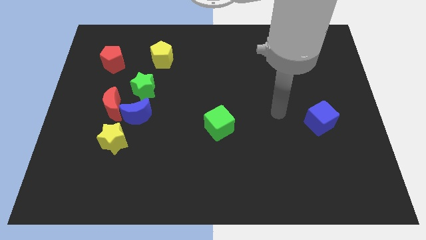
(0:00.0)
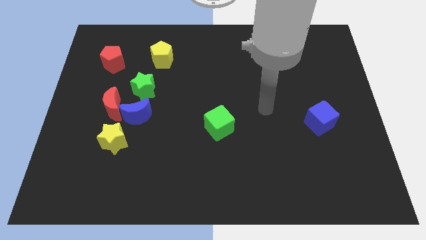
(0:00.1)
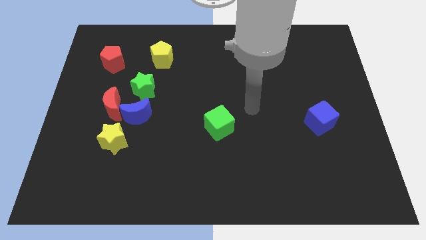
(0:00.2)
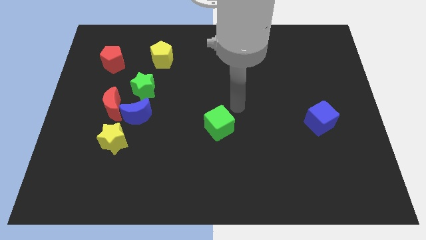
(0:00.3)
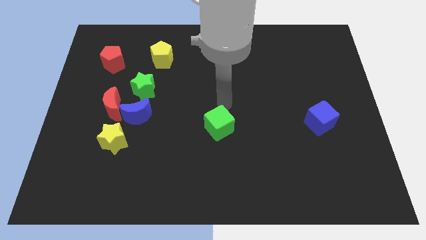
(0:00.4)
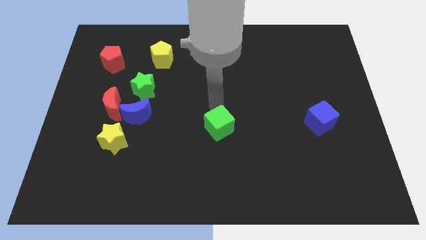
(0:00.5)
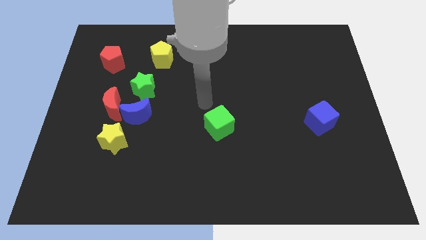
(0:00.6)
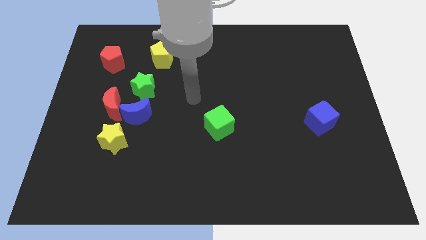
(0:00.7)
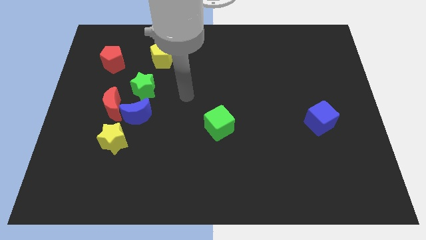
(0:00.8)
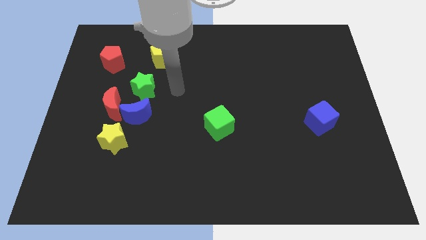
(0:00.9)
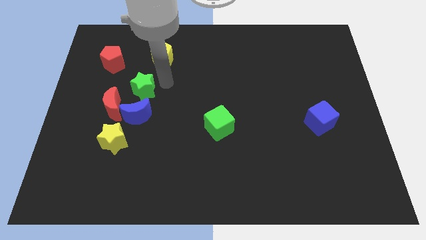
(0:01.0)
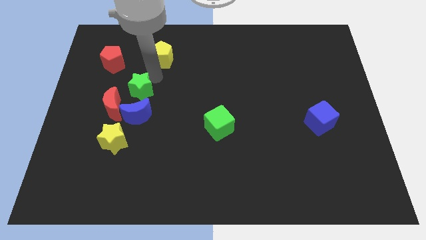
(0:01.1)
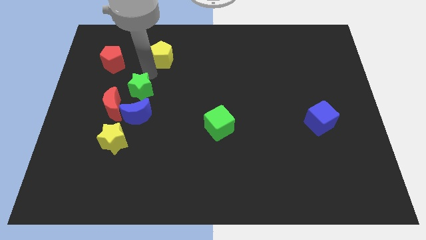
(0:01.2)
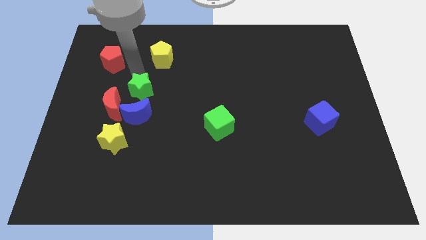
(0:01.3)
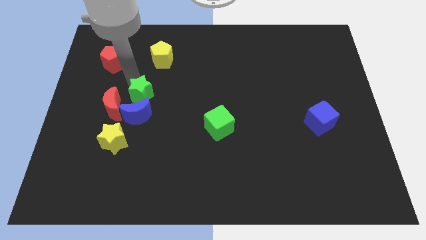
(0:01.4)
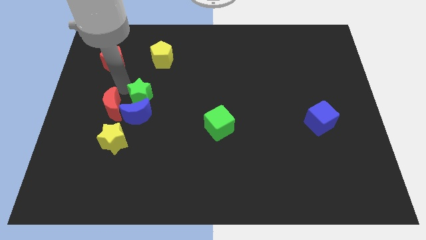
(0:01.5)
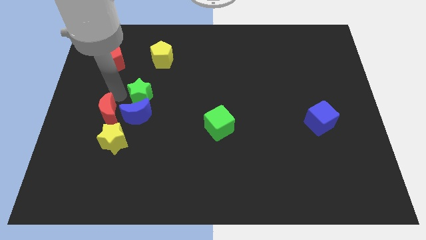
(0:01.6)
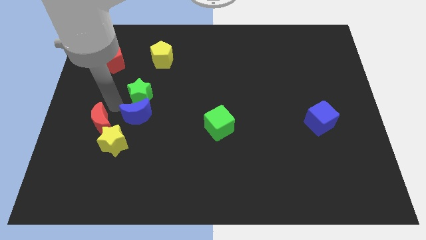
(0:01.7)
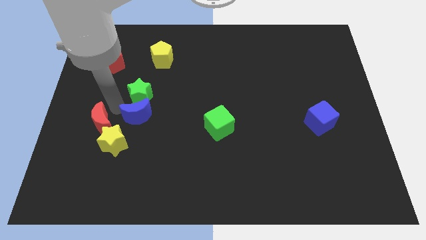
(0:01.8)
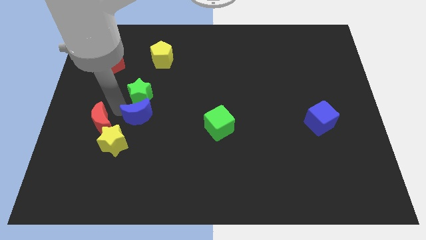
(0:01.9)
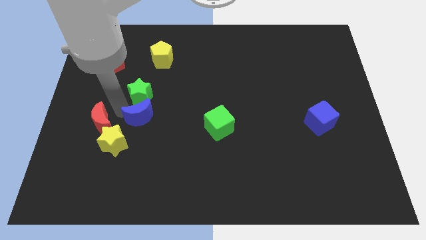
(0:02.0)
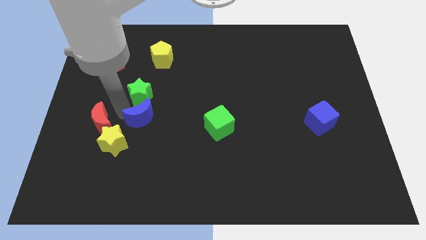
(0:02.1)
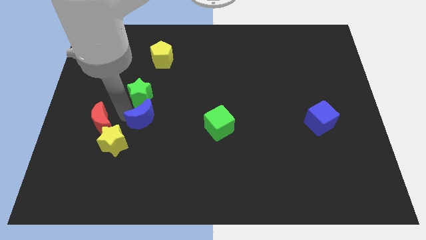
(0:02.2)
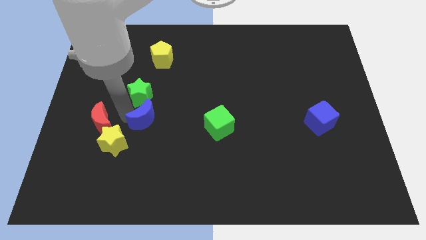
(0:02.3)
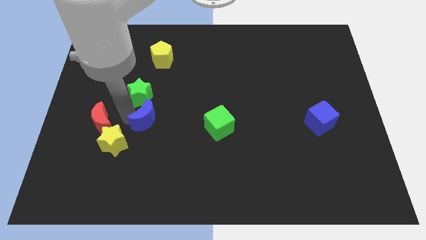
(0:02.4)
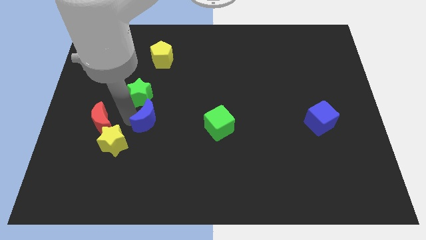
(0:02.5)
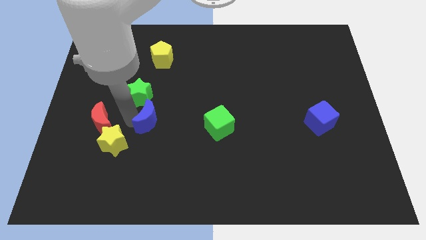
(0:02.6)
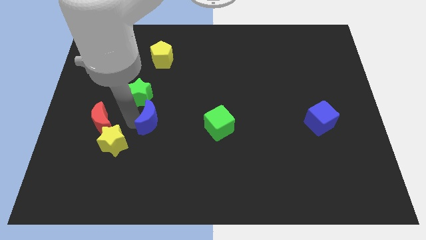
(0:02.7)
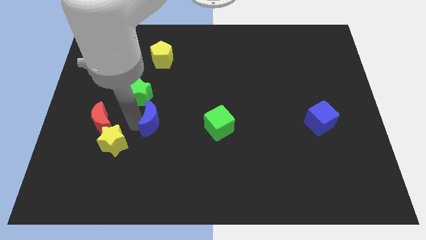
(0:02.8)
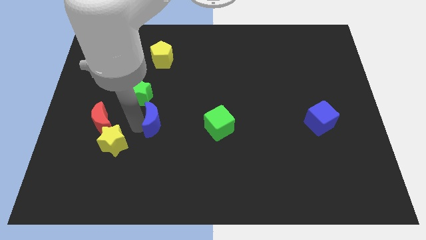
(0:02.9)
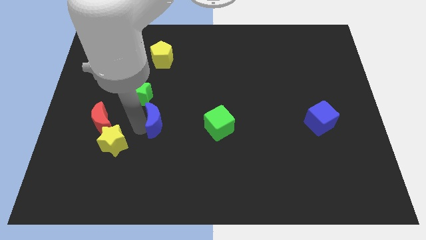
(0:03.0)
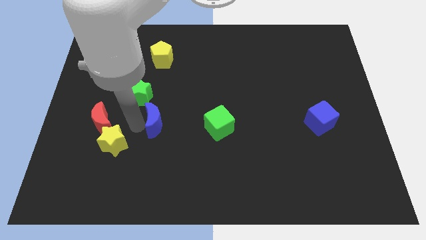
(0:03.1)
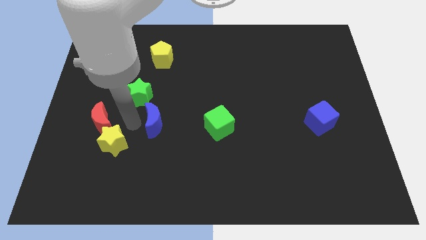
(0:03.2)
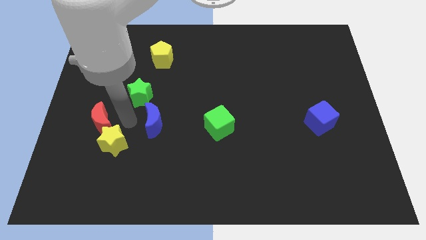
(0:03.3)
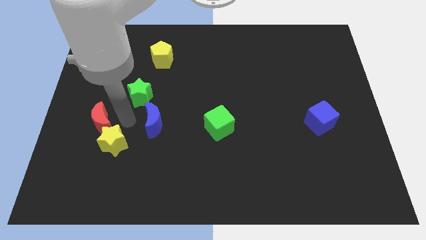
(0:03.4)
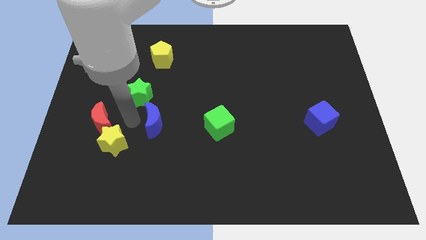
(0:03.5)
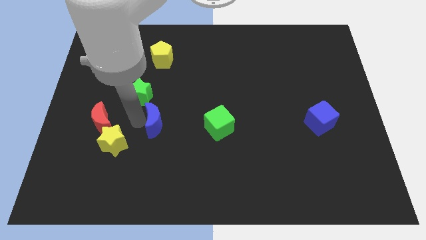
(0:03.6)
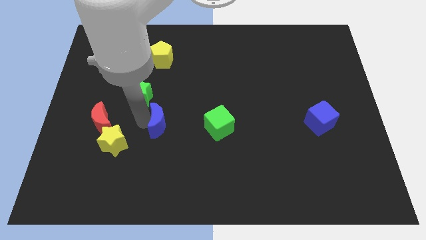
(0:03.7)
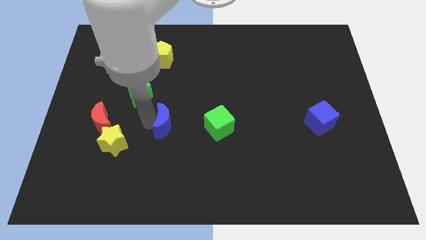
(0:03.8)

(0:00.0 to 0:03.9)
separate the blue moon from the group of blocks

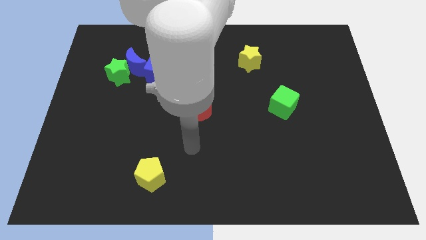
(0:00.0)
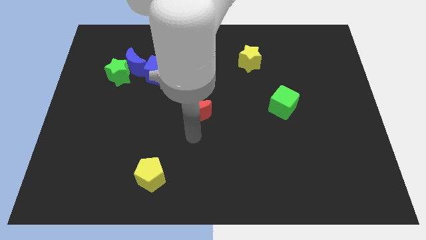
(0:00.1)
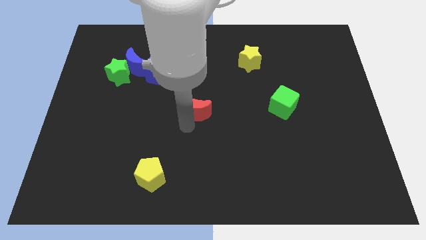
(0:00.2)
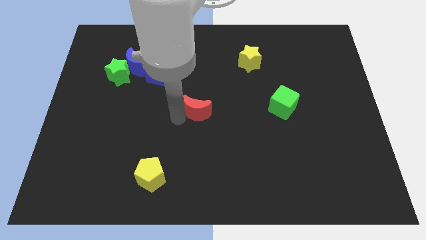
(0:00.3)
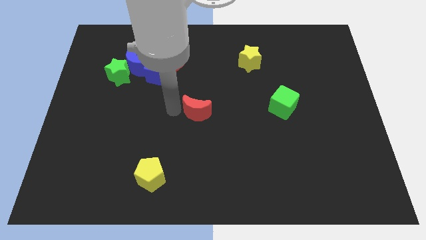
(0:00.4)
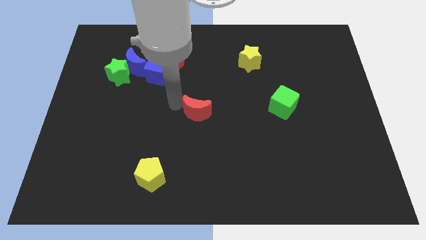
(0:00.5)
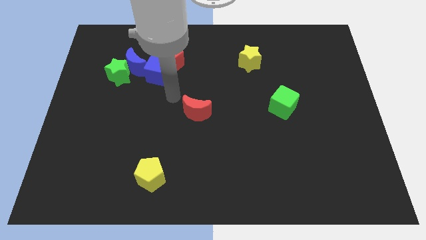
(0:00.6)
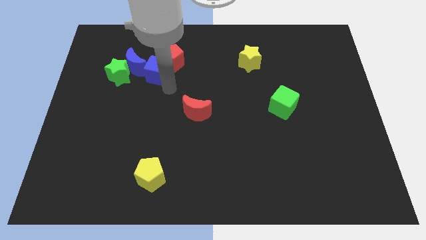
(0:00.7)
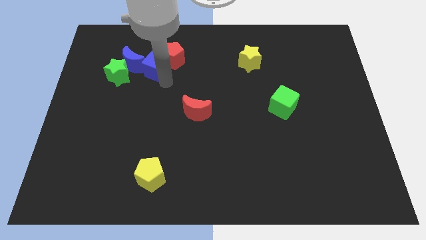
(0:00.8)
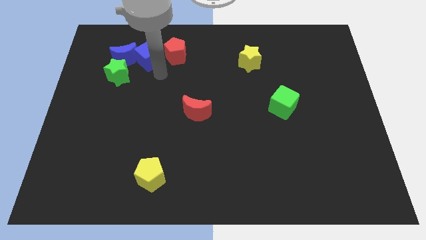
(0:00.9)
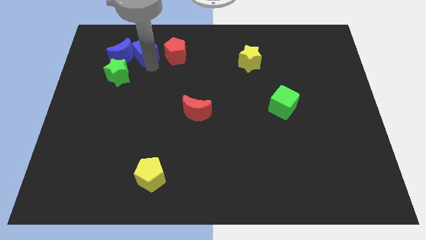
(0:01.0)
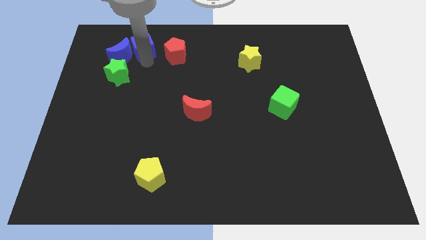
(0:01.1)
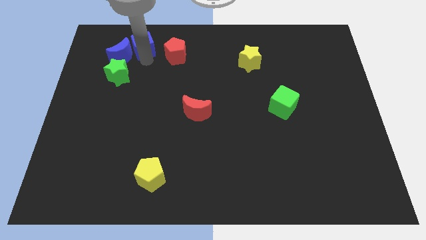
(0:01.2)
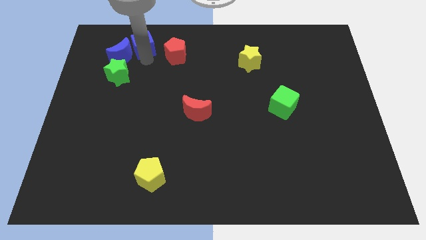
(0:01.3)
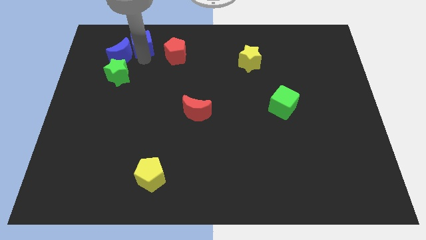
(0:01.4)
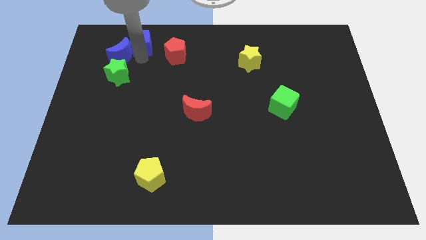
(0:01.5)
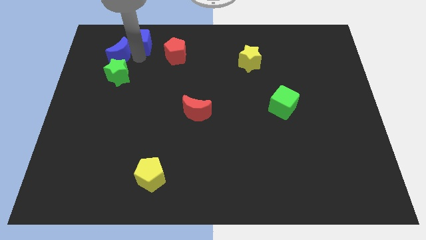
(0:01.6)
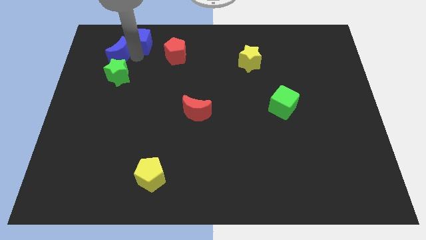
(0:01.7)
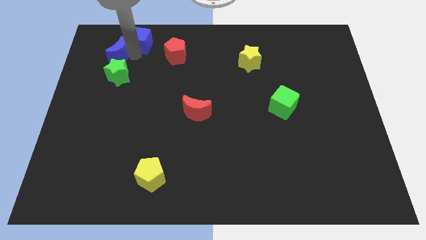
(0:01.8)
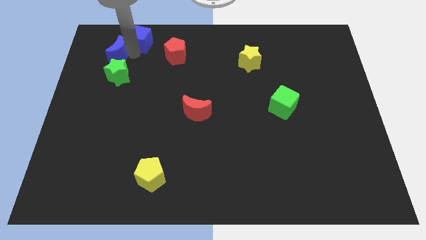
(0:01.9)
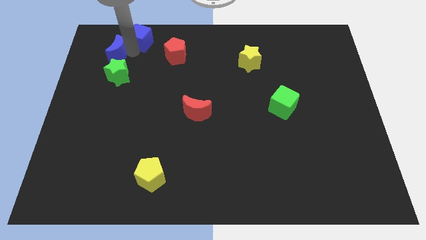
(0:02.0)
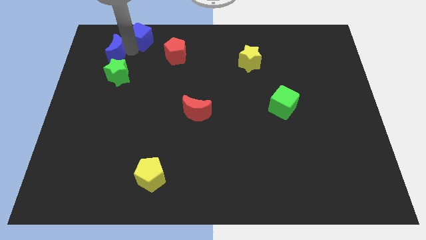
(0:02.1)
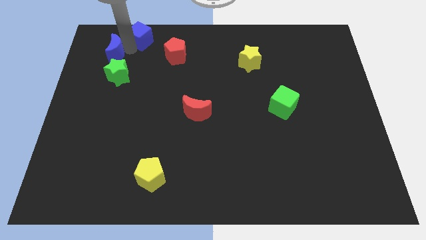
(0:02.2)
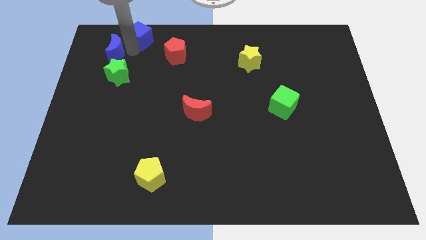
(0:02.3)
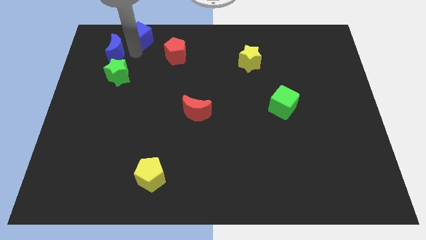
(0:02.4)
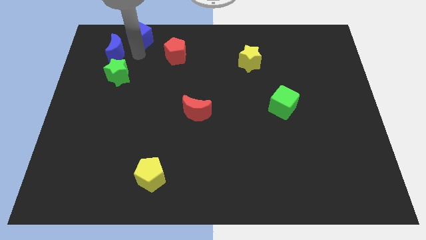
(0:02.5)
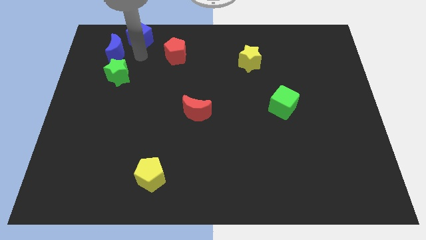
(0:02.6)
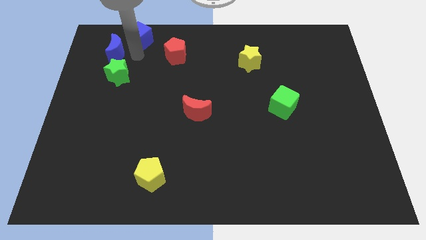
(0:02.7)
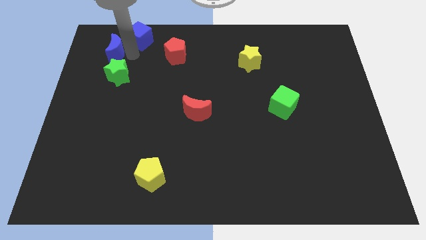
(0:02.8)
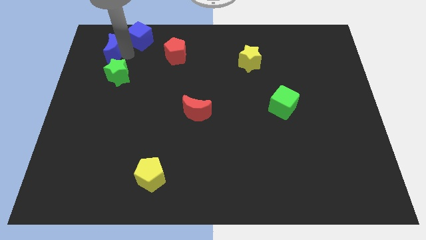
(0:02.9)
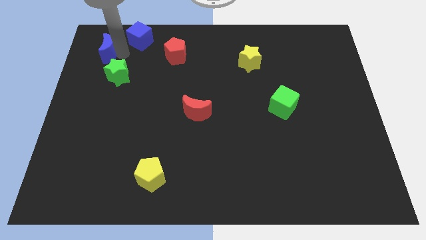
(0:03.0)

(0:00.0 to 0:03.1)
pull the blue moon apart from the group

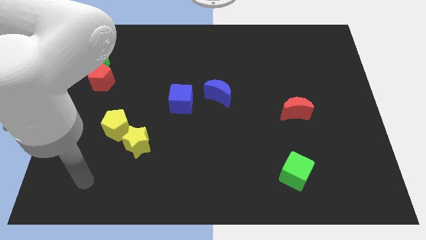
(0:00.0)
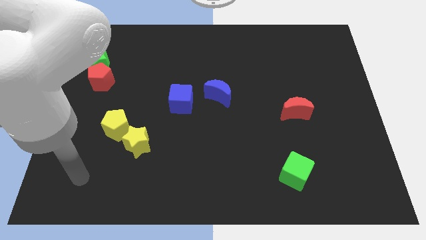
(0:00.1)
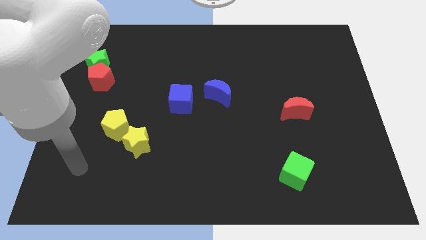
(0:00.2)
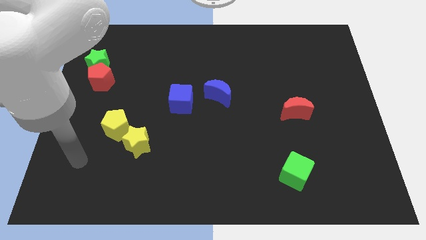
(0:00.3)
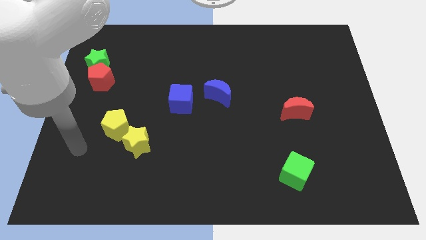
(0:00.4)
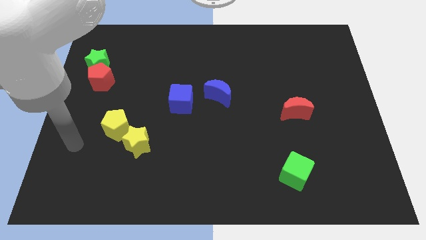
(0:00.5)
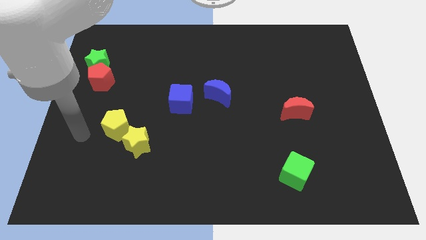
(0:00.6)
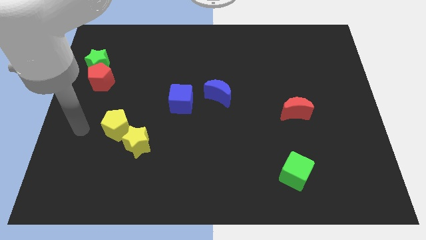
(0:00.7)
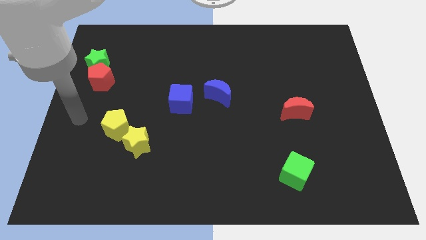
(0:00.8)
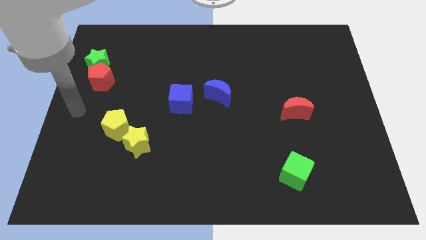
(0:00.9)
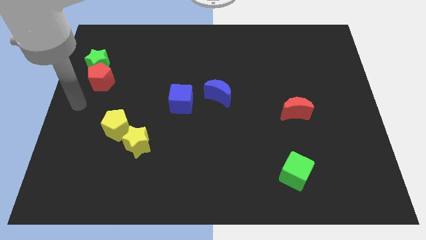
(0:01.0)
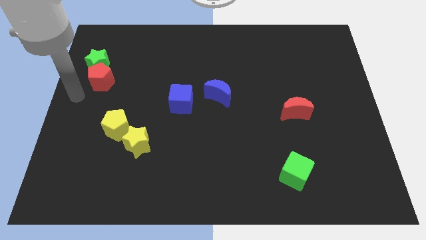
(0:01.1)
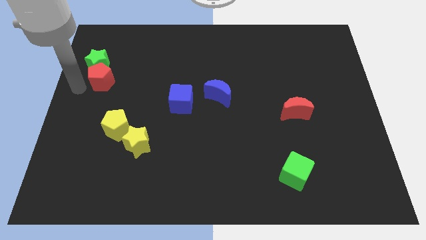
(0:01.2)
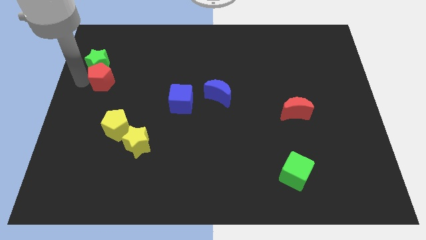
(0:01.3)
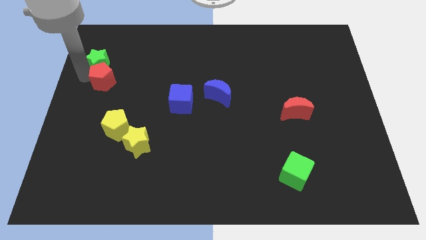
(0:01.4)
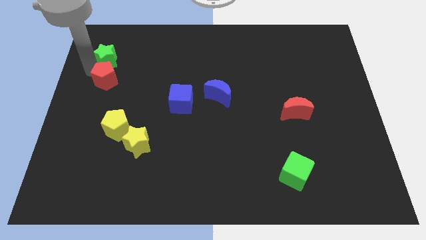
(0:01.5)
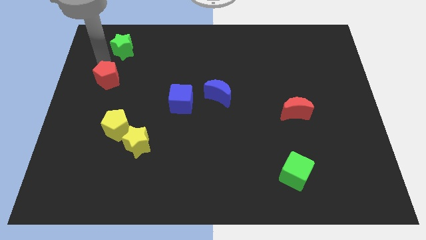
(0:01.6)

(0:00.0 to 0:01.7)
pull the red pentagon apart from the green star

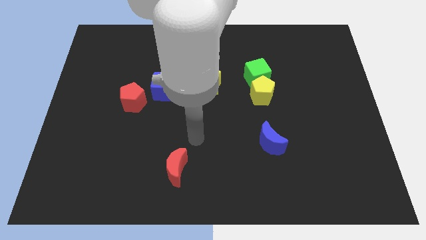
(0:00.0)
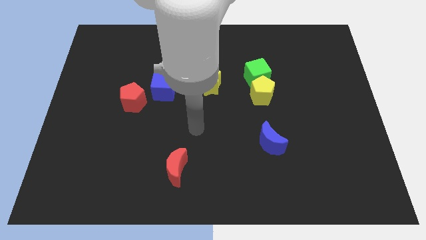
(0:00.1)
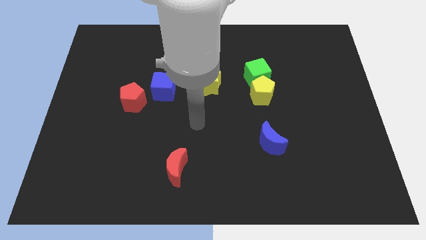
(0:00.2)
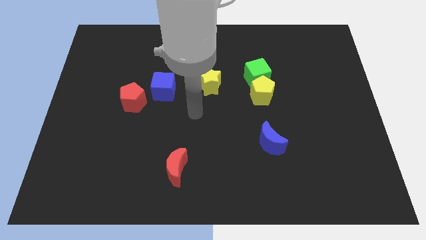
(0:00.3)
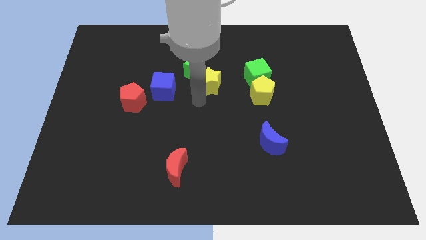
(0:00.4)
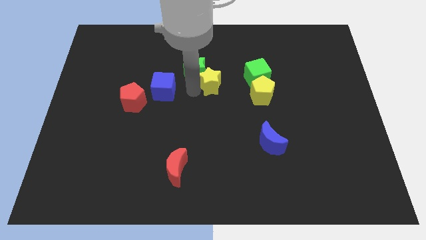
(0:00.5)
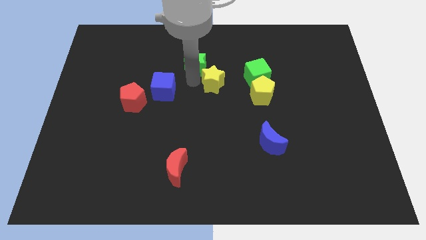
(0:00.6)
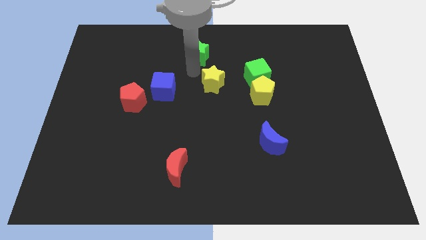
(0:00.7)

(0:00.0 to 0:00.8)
move the yellow star away from the green star
